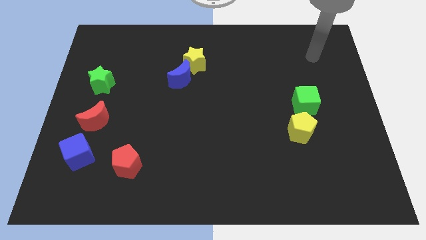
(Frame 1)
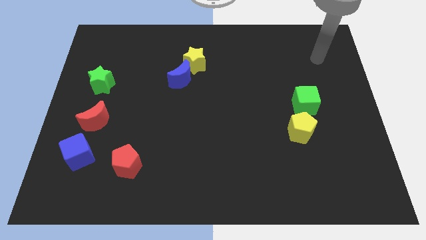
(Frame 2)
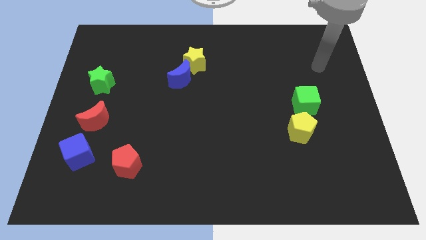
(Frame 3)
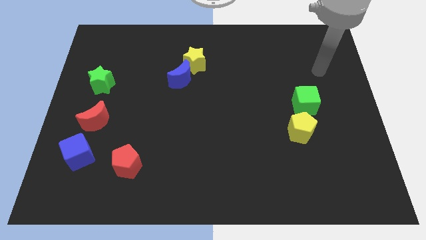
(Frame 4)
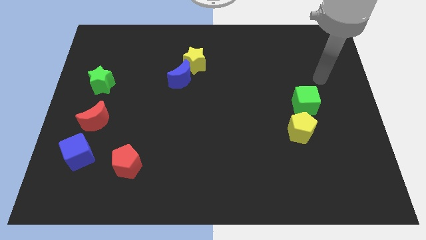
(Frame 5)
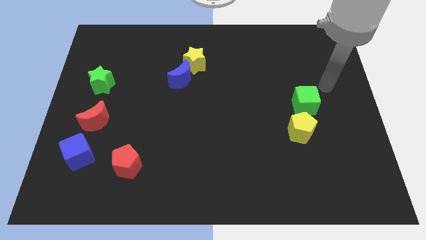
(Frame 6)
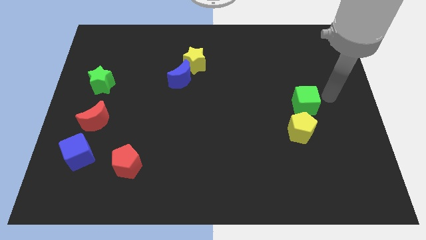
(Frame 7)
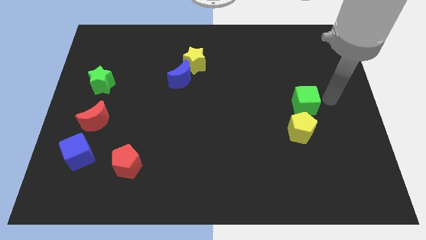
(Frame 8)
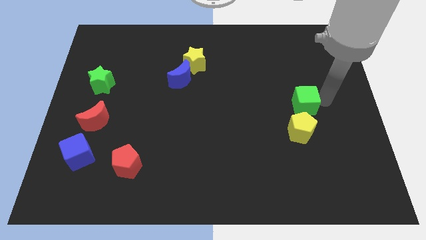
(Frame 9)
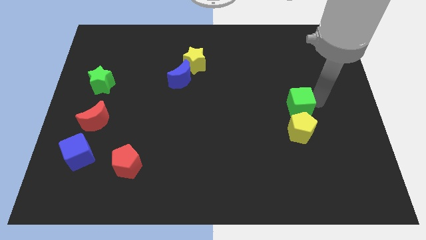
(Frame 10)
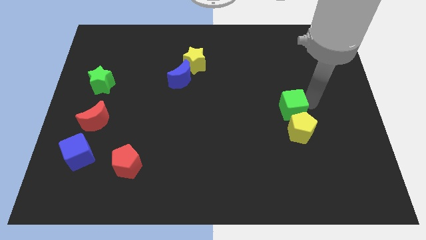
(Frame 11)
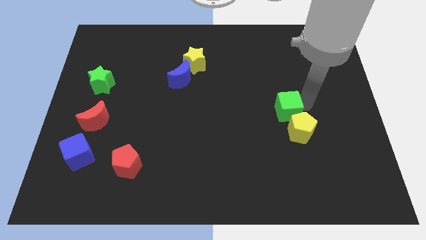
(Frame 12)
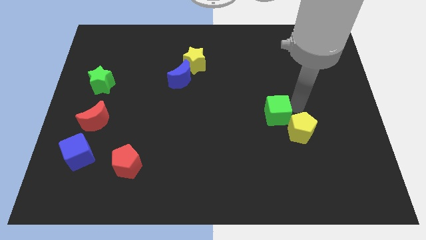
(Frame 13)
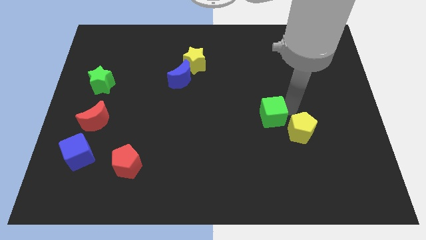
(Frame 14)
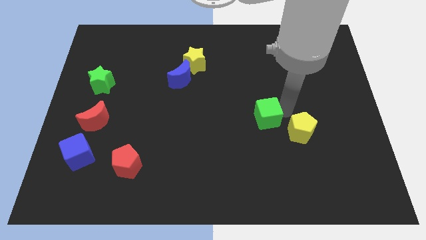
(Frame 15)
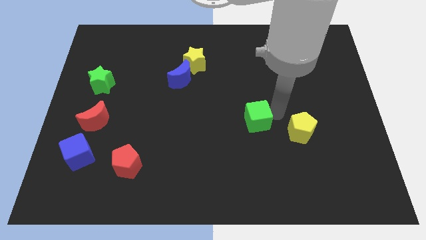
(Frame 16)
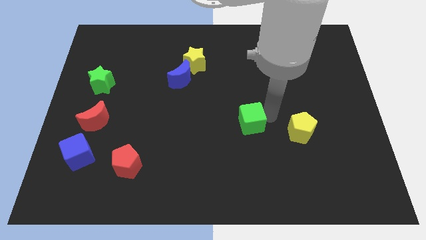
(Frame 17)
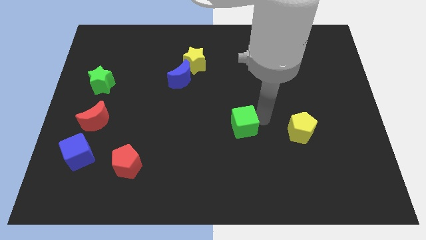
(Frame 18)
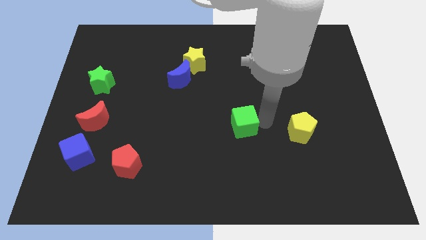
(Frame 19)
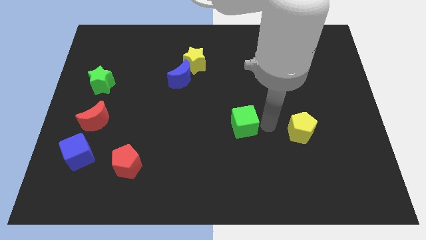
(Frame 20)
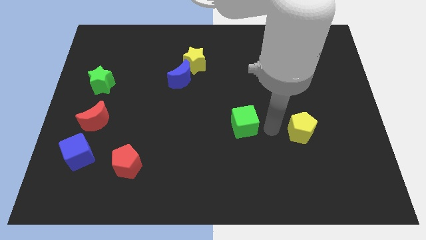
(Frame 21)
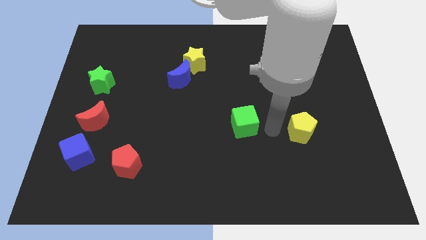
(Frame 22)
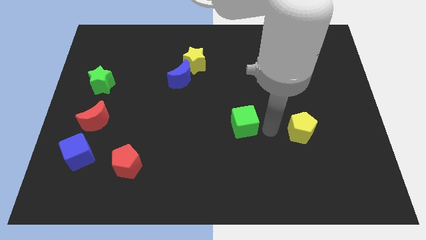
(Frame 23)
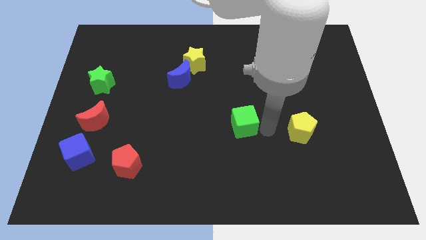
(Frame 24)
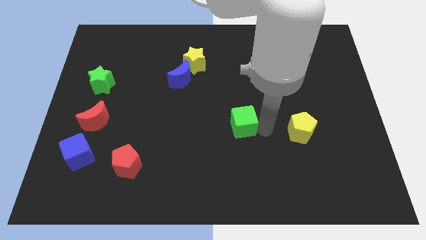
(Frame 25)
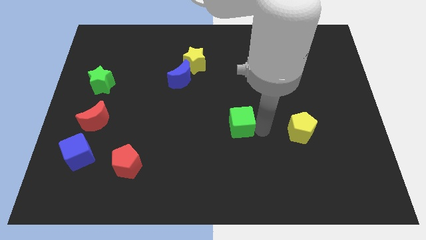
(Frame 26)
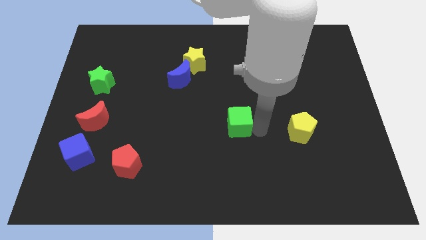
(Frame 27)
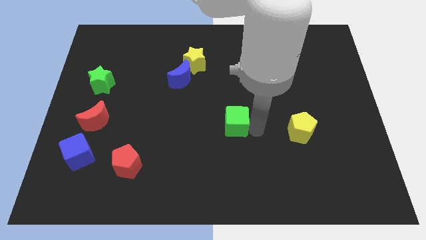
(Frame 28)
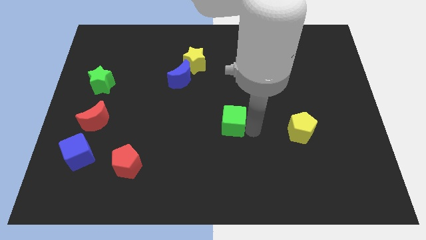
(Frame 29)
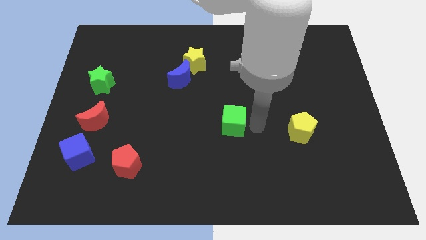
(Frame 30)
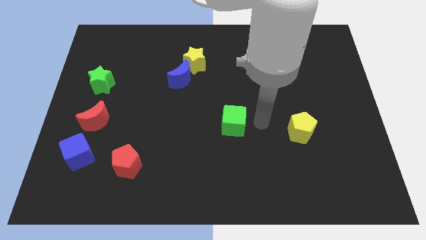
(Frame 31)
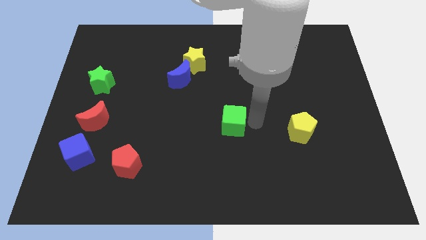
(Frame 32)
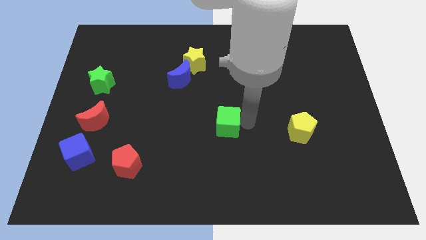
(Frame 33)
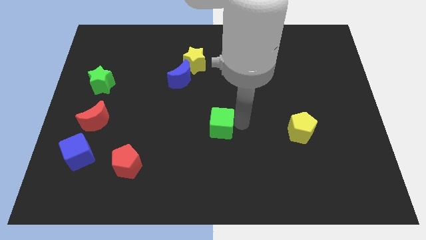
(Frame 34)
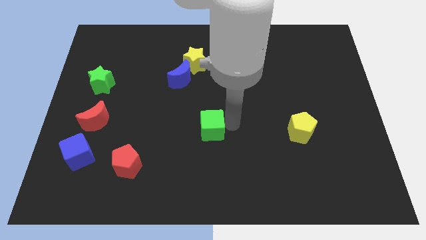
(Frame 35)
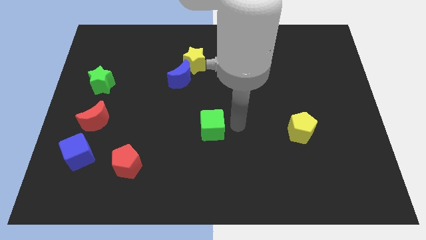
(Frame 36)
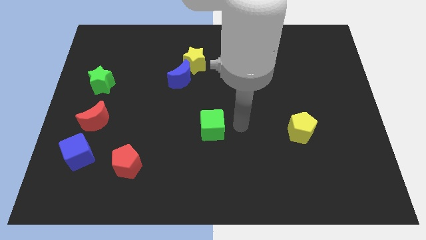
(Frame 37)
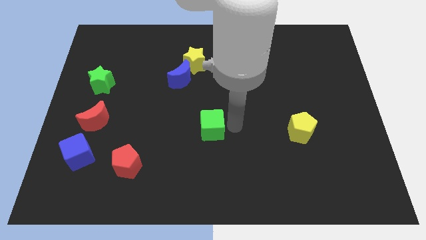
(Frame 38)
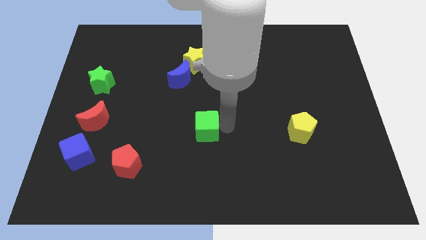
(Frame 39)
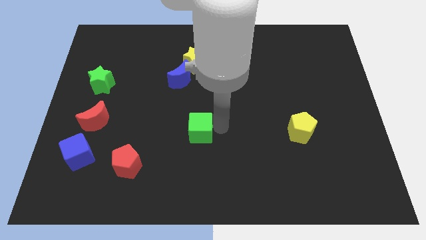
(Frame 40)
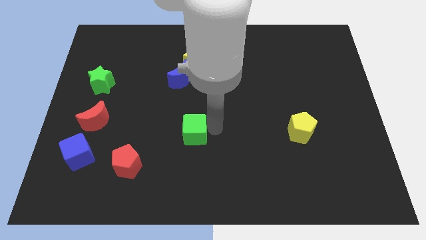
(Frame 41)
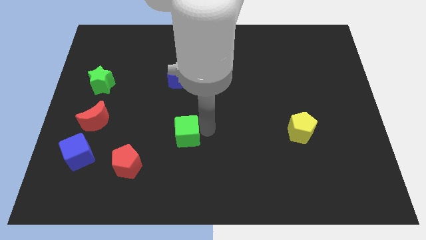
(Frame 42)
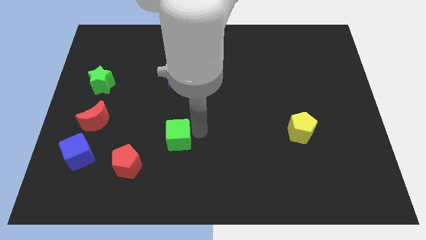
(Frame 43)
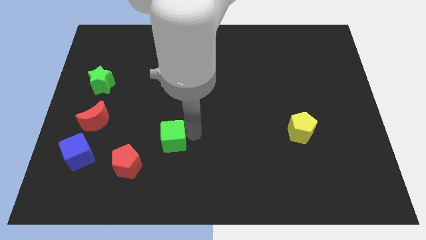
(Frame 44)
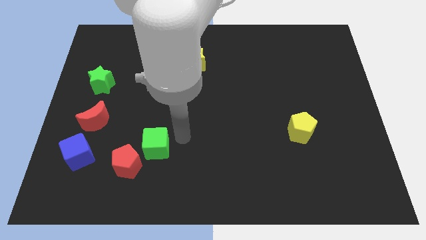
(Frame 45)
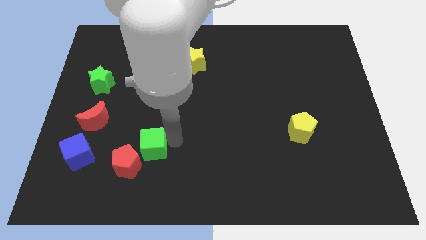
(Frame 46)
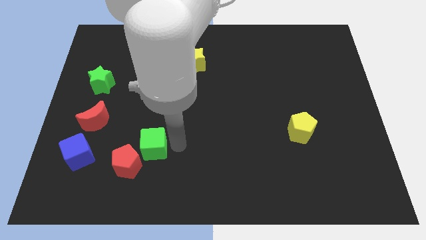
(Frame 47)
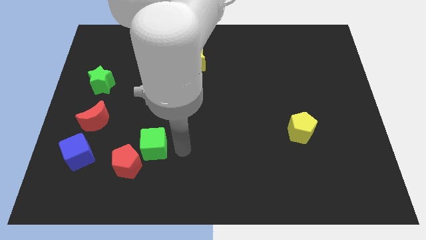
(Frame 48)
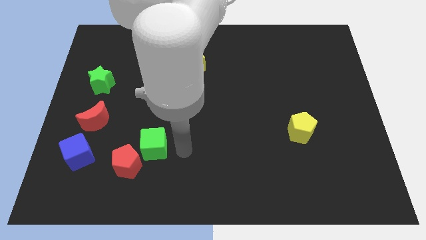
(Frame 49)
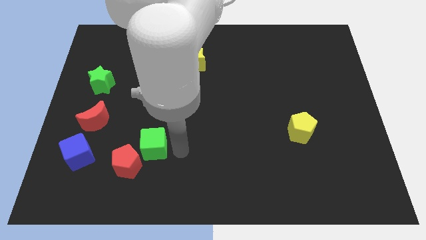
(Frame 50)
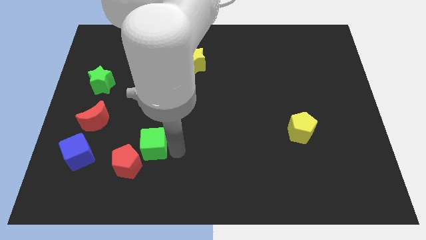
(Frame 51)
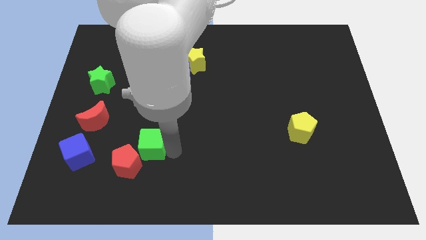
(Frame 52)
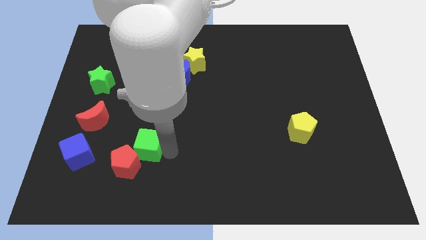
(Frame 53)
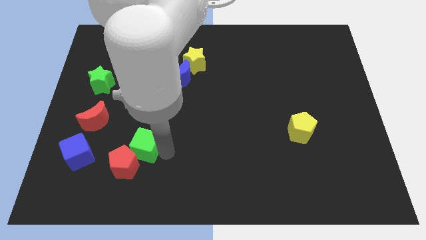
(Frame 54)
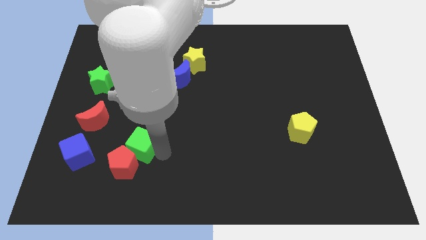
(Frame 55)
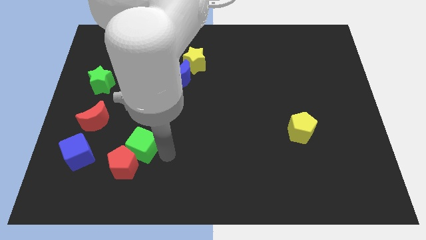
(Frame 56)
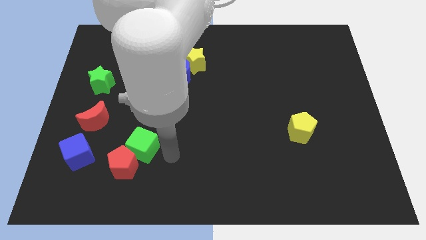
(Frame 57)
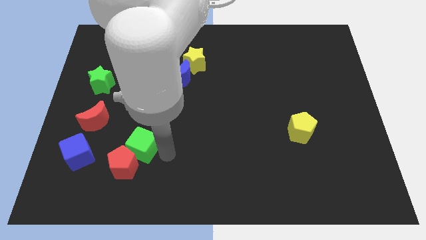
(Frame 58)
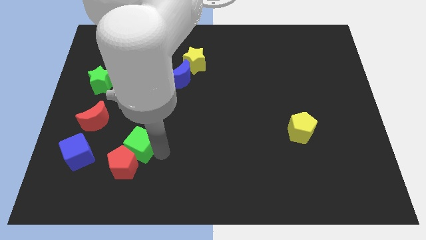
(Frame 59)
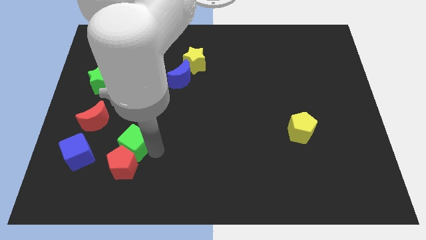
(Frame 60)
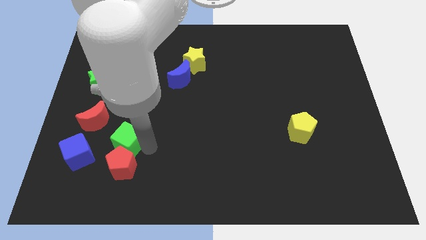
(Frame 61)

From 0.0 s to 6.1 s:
move the green cube diagonally up and to the left of the red pentagon

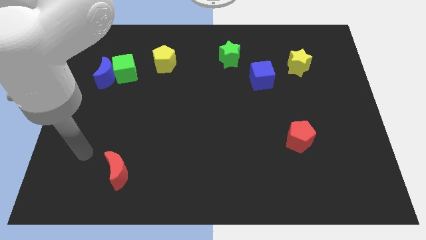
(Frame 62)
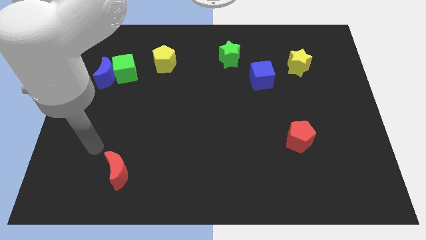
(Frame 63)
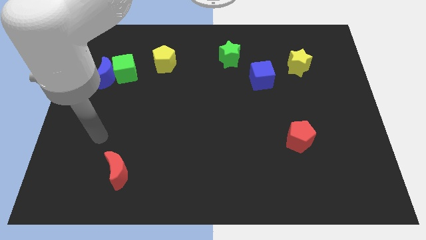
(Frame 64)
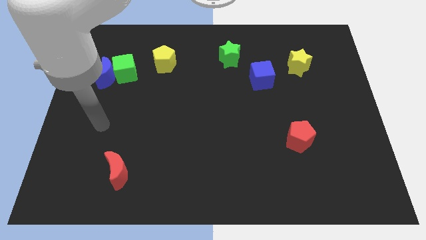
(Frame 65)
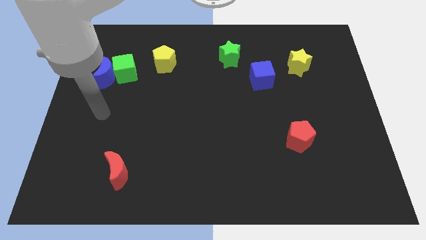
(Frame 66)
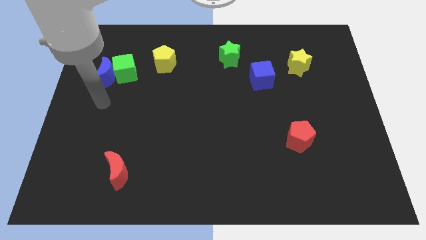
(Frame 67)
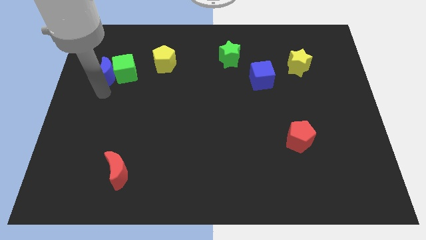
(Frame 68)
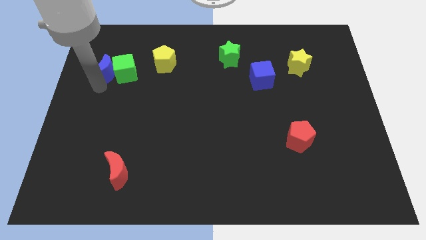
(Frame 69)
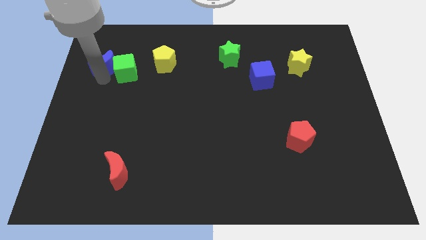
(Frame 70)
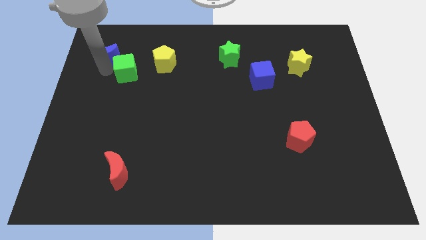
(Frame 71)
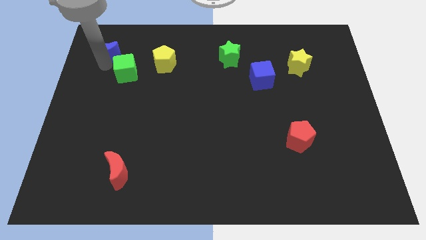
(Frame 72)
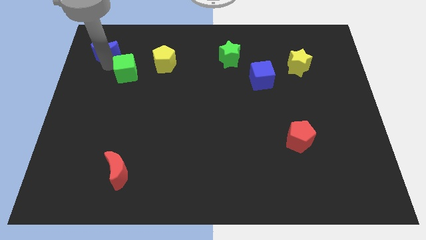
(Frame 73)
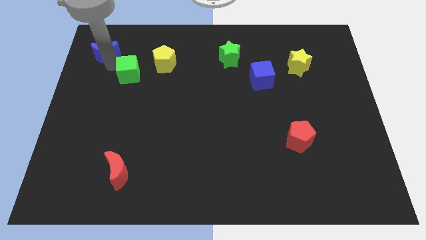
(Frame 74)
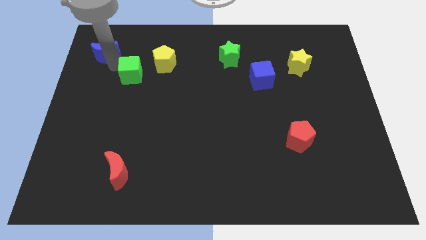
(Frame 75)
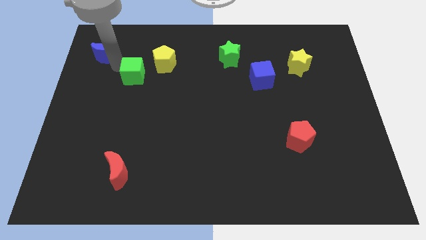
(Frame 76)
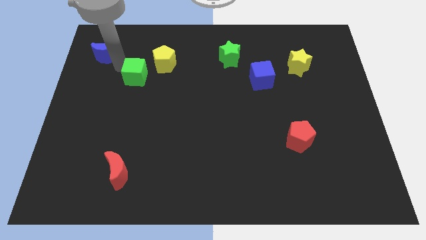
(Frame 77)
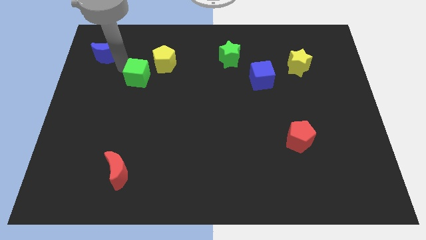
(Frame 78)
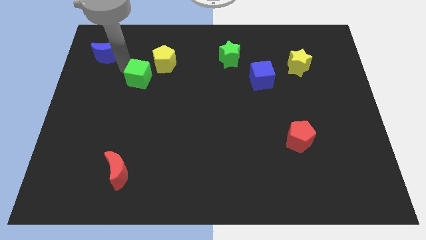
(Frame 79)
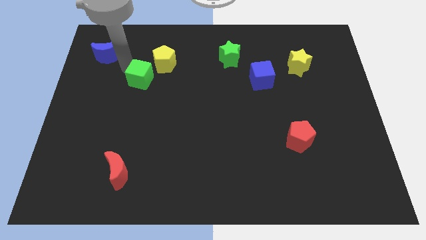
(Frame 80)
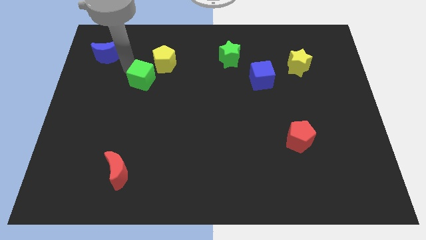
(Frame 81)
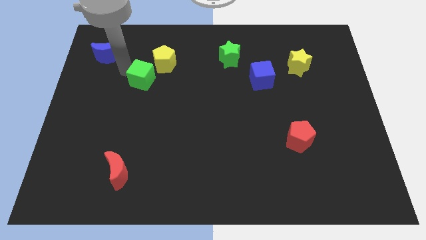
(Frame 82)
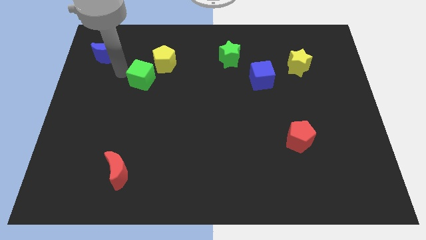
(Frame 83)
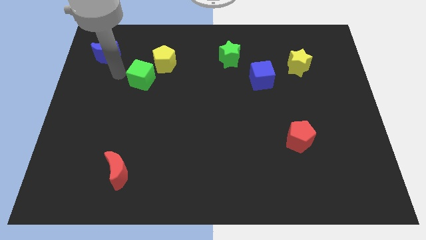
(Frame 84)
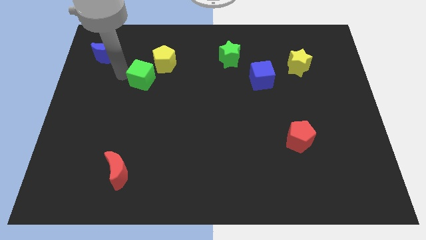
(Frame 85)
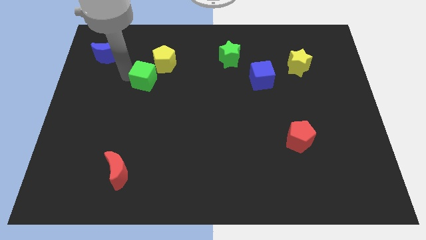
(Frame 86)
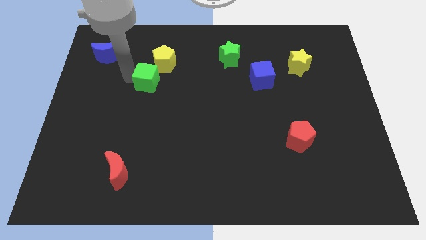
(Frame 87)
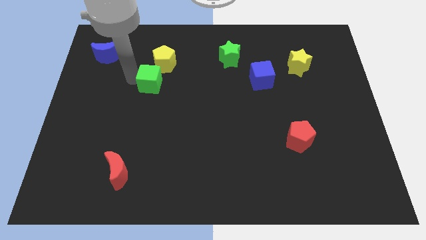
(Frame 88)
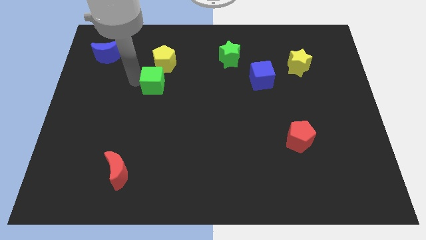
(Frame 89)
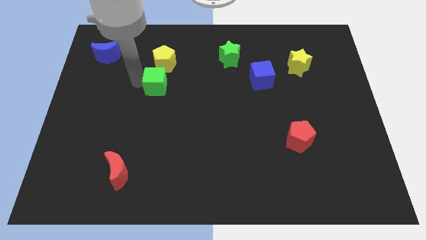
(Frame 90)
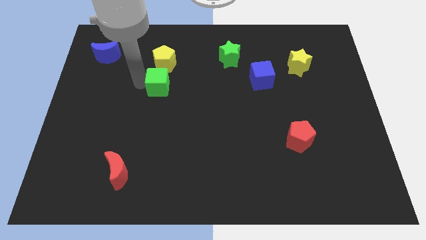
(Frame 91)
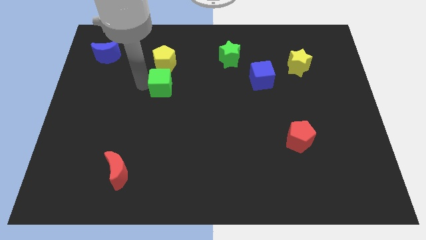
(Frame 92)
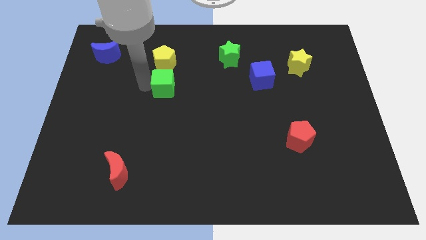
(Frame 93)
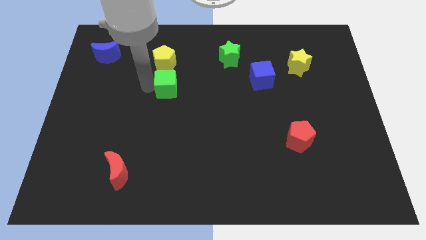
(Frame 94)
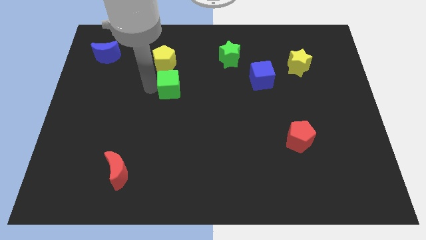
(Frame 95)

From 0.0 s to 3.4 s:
push the green cube to the bottom right of the yellow pentagon
